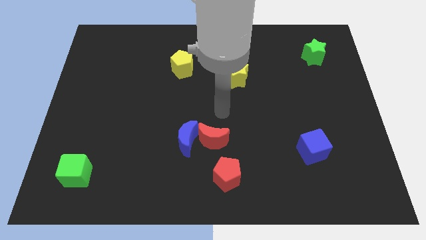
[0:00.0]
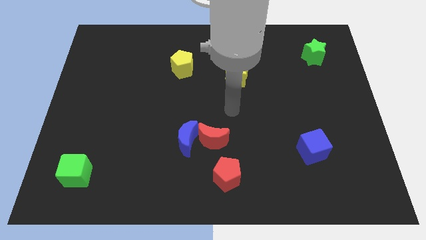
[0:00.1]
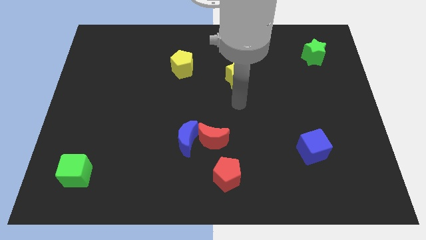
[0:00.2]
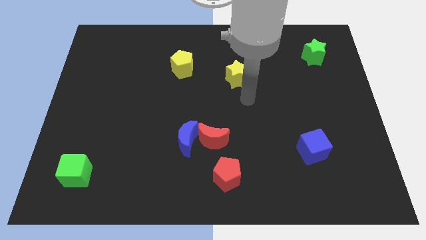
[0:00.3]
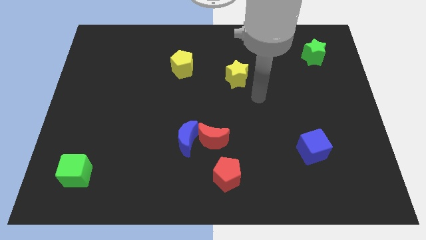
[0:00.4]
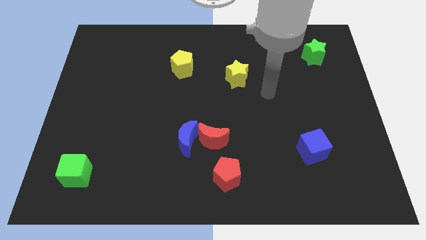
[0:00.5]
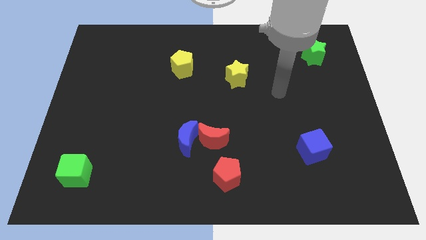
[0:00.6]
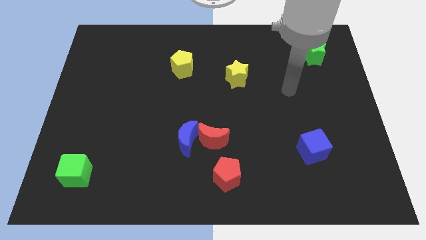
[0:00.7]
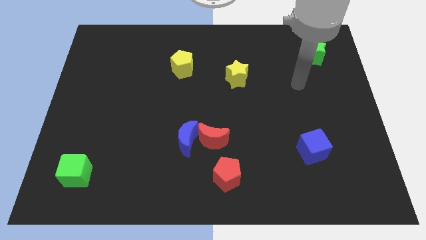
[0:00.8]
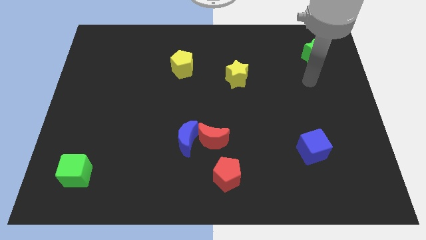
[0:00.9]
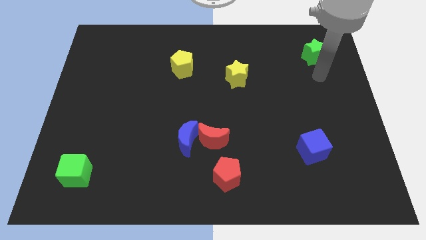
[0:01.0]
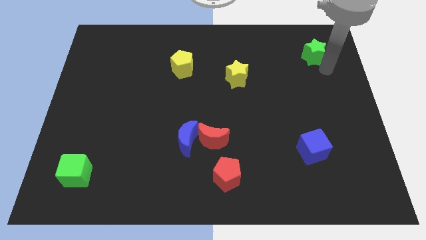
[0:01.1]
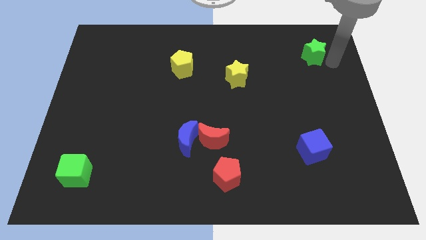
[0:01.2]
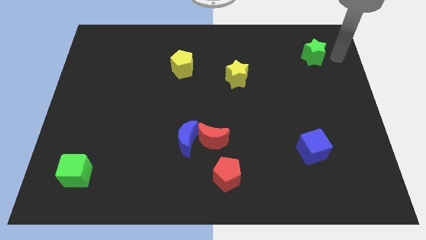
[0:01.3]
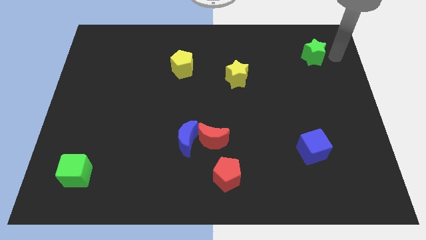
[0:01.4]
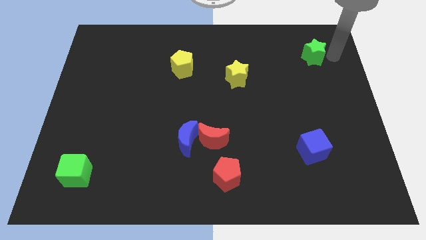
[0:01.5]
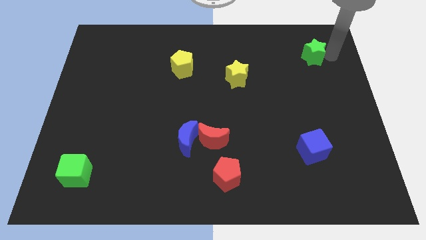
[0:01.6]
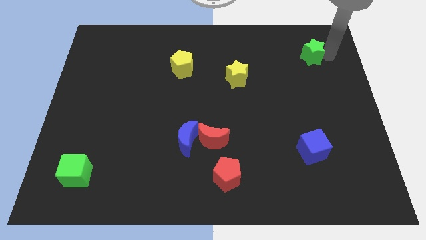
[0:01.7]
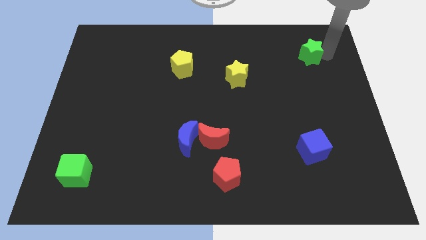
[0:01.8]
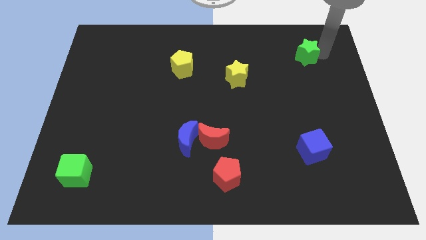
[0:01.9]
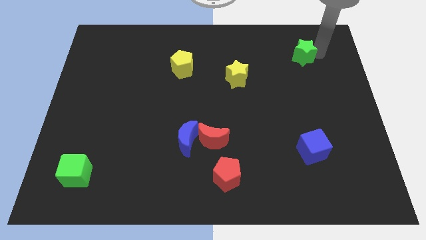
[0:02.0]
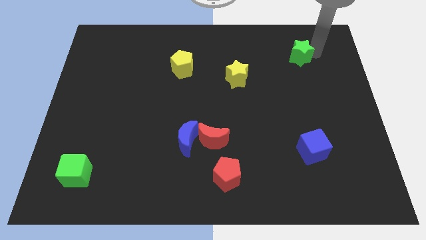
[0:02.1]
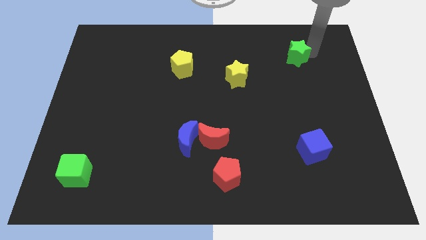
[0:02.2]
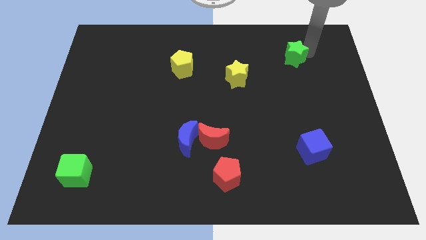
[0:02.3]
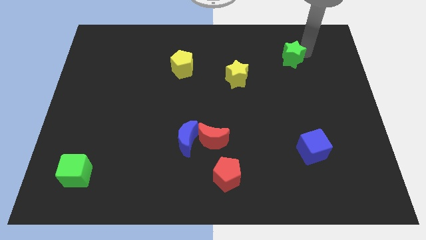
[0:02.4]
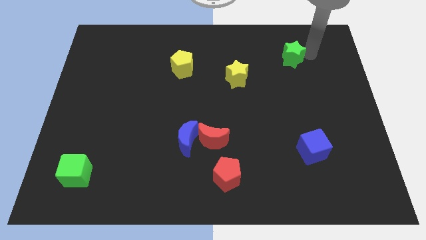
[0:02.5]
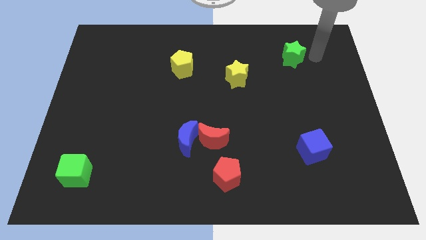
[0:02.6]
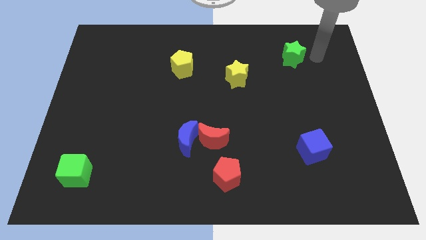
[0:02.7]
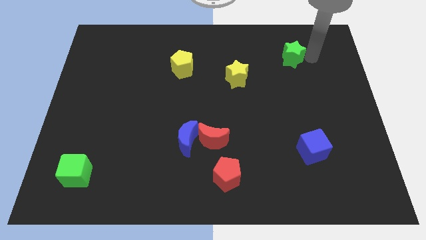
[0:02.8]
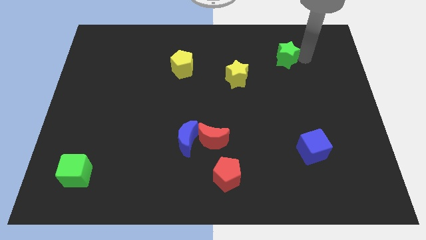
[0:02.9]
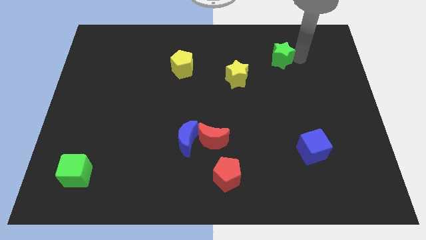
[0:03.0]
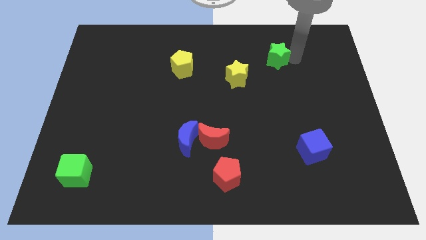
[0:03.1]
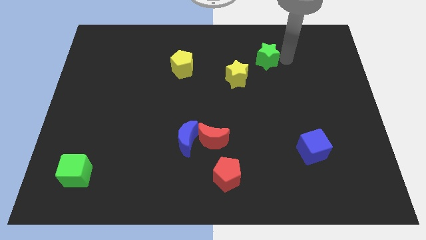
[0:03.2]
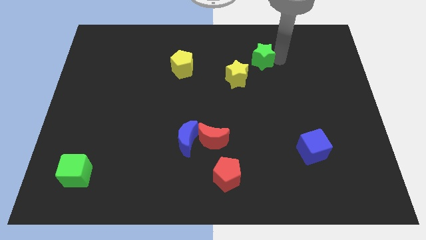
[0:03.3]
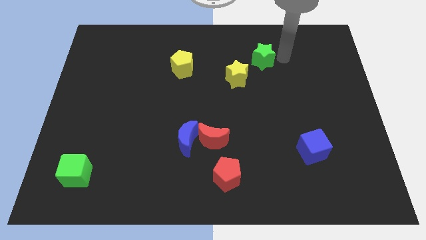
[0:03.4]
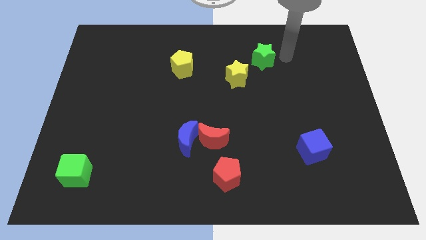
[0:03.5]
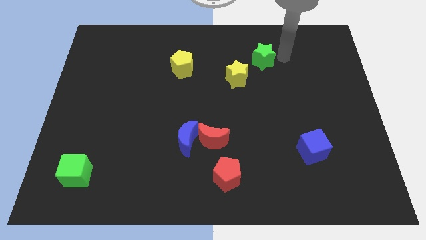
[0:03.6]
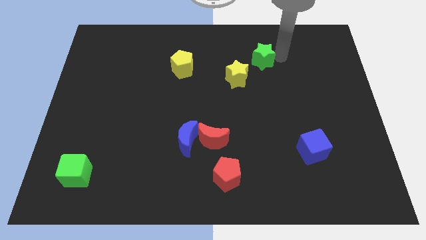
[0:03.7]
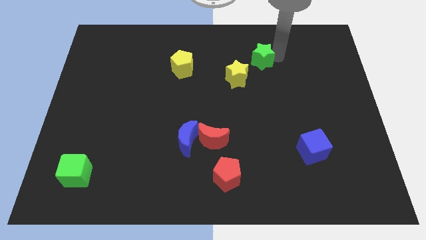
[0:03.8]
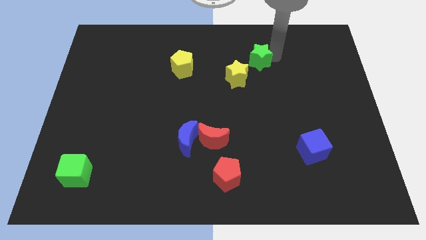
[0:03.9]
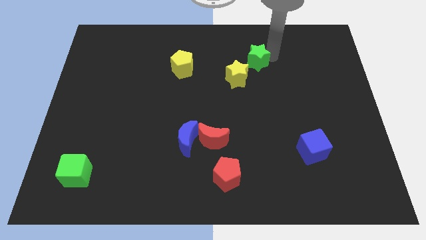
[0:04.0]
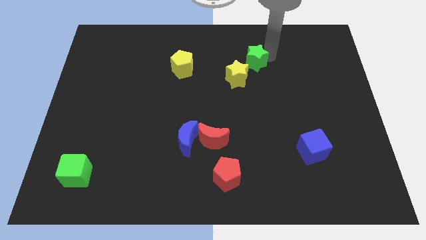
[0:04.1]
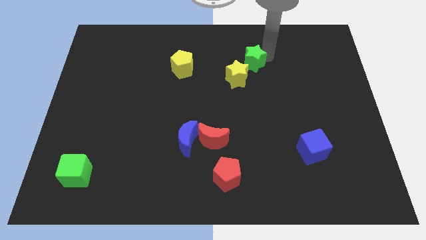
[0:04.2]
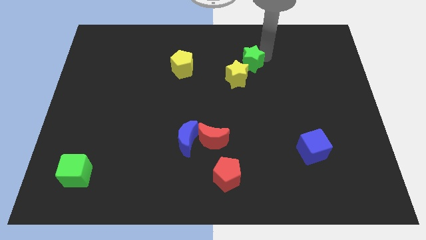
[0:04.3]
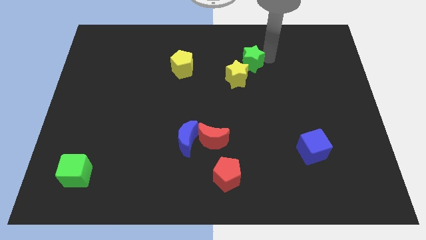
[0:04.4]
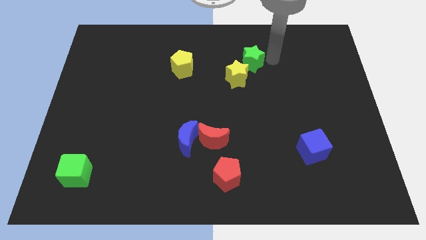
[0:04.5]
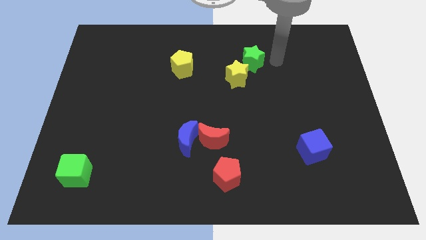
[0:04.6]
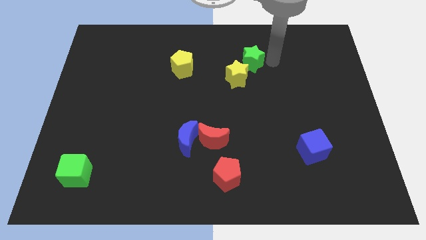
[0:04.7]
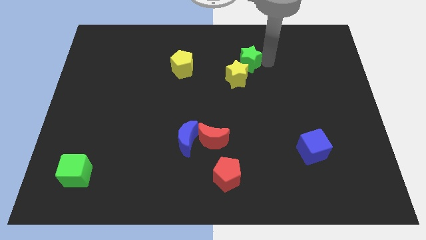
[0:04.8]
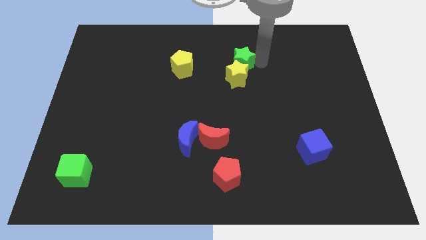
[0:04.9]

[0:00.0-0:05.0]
slide the green star to the right side of the yellow pentagon

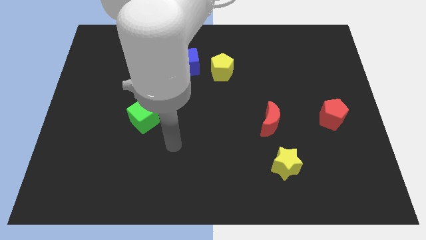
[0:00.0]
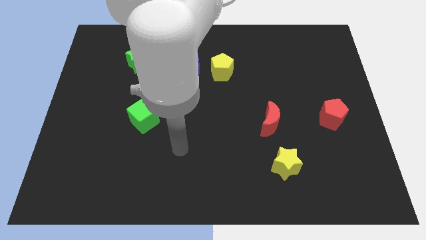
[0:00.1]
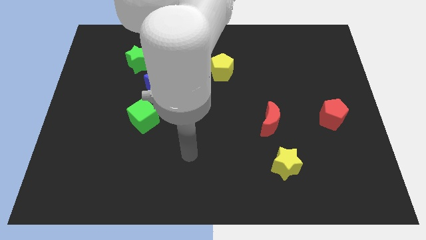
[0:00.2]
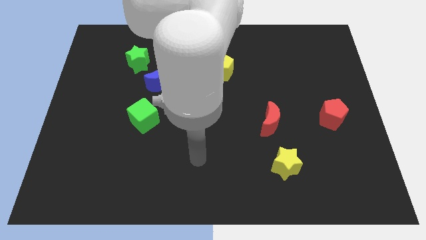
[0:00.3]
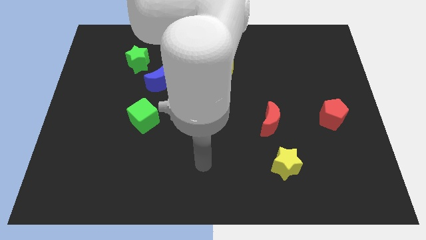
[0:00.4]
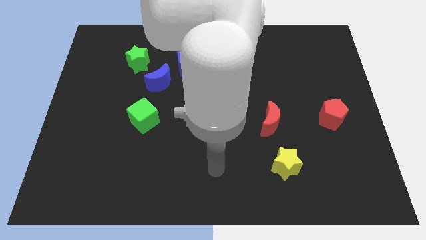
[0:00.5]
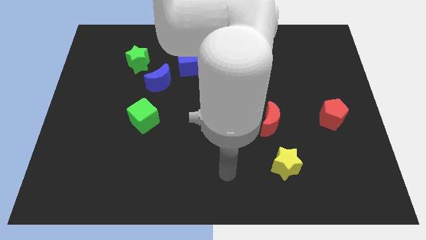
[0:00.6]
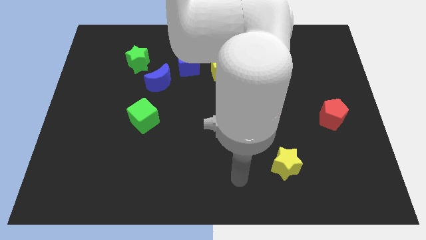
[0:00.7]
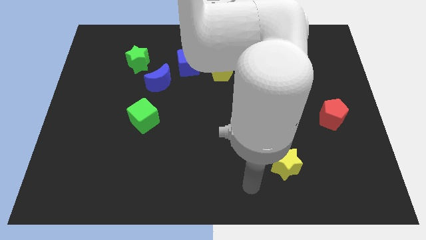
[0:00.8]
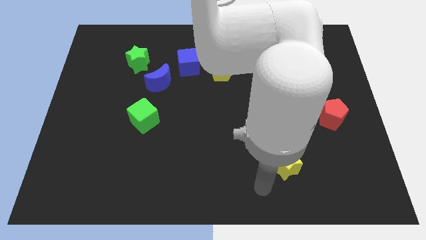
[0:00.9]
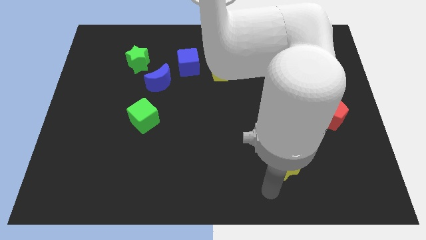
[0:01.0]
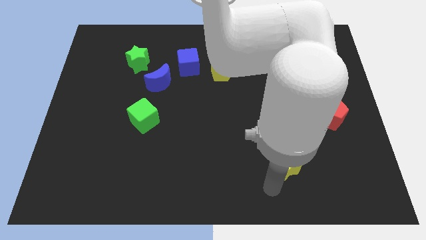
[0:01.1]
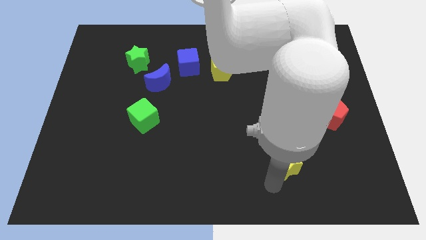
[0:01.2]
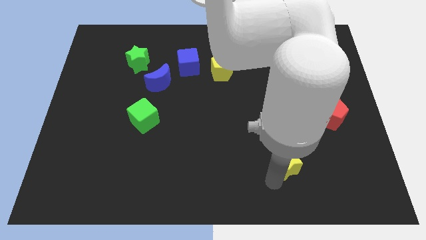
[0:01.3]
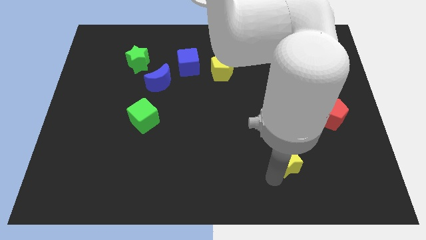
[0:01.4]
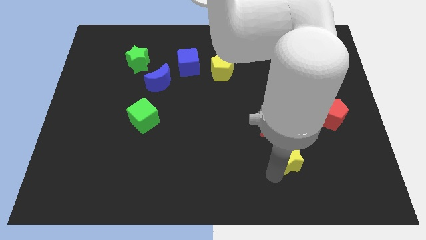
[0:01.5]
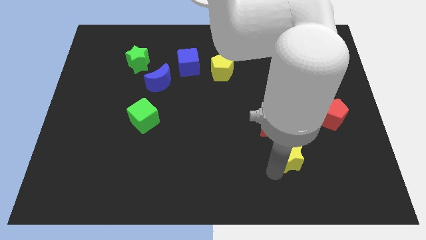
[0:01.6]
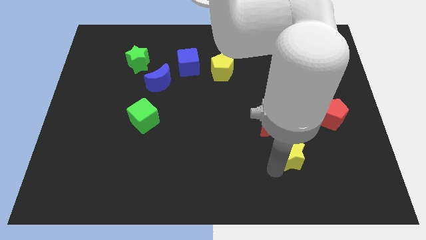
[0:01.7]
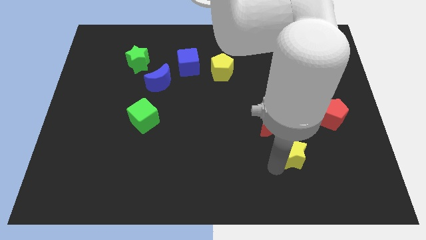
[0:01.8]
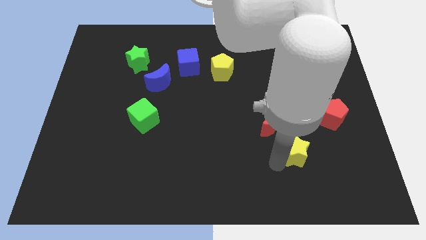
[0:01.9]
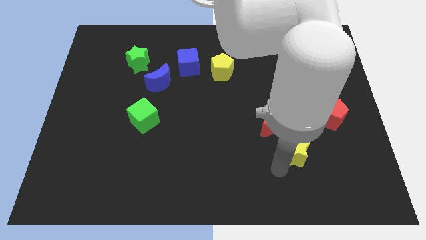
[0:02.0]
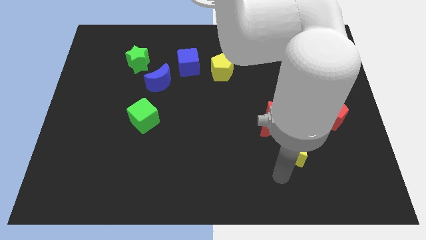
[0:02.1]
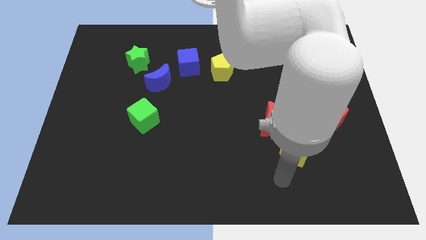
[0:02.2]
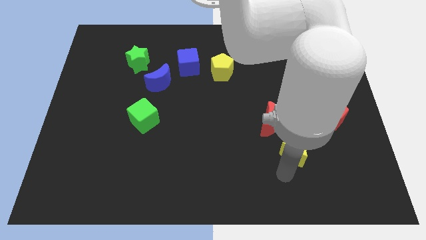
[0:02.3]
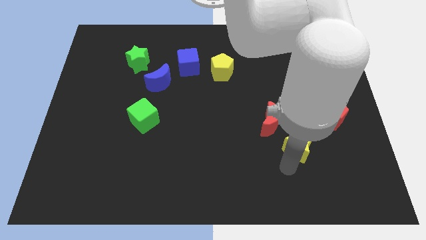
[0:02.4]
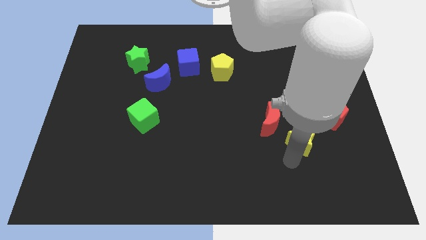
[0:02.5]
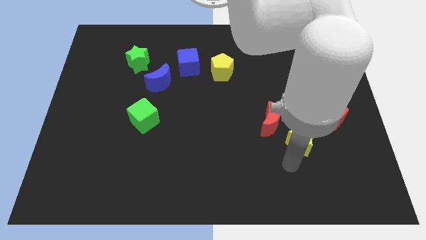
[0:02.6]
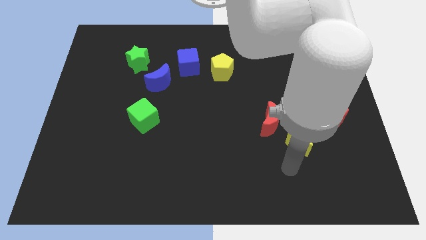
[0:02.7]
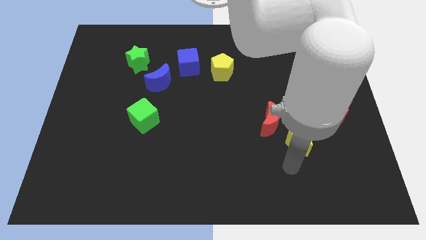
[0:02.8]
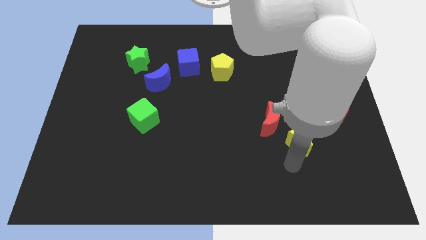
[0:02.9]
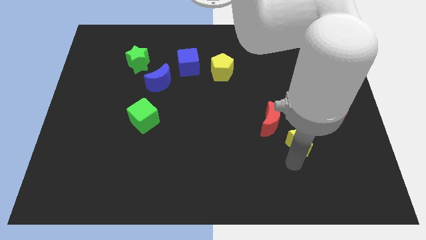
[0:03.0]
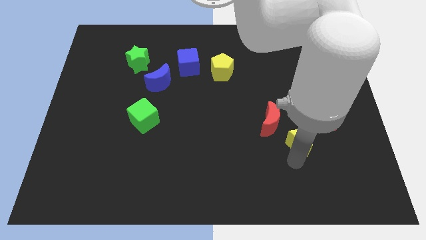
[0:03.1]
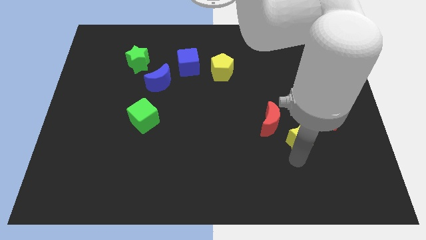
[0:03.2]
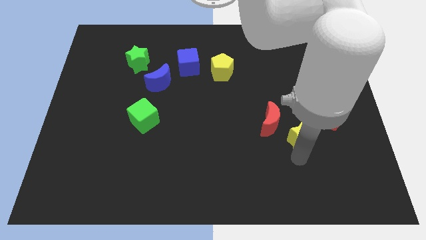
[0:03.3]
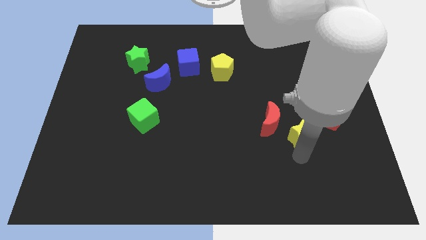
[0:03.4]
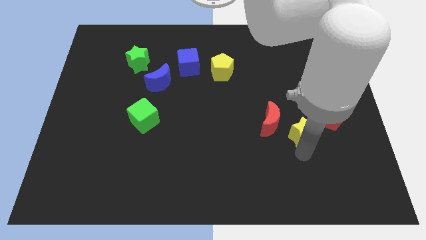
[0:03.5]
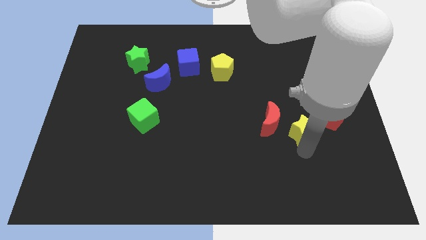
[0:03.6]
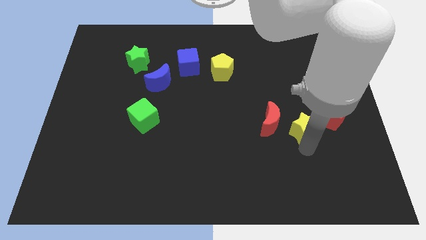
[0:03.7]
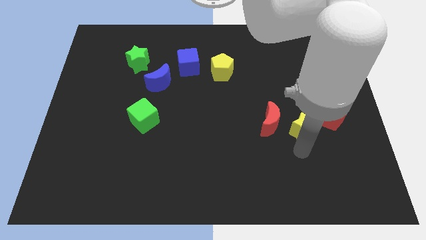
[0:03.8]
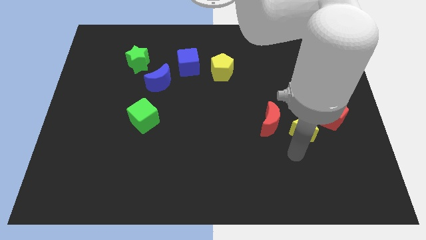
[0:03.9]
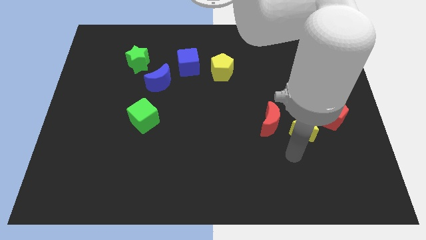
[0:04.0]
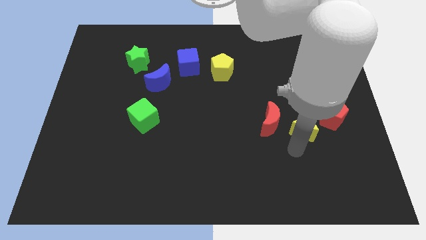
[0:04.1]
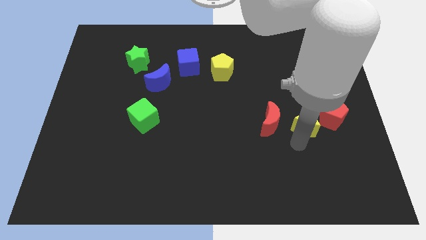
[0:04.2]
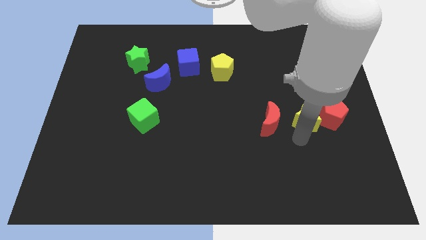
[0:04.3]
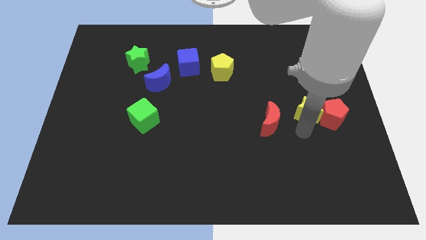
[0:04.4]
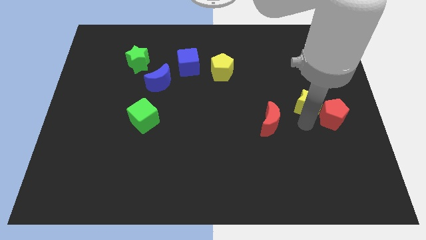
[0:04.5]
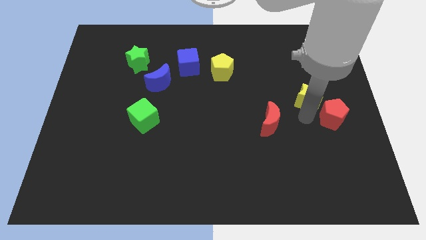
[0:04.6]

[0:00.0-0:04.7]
slide the yellow star to the top of the red pentagon
